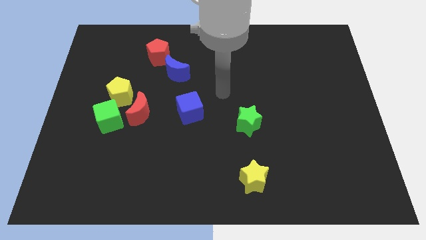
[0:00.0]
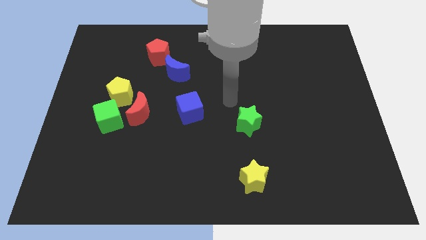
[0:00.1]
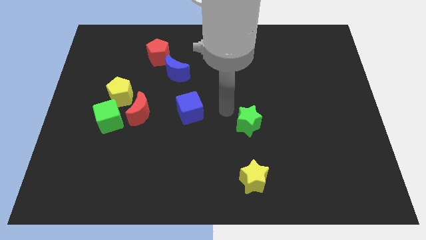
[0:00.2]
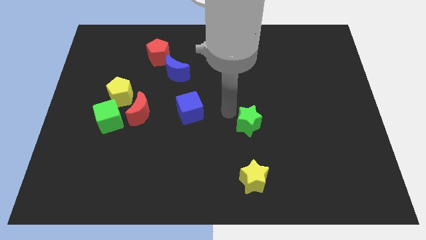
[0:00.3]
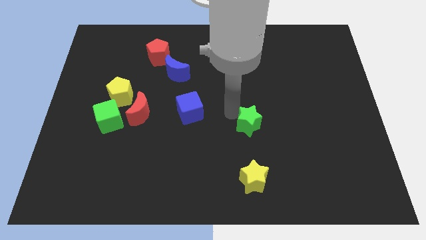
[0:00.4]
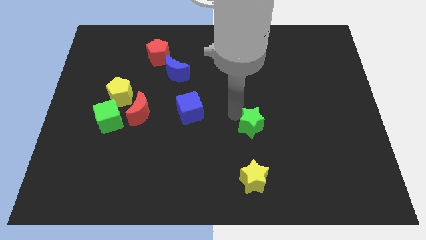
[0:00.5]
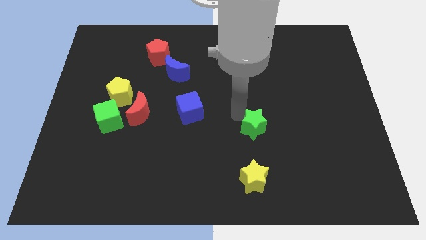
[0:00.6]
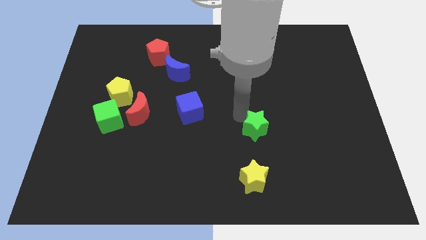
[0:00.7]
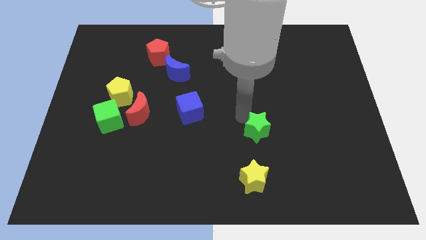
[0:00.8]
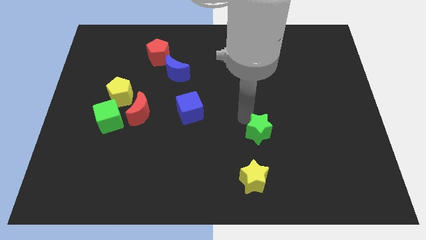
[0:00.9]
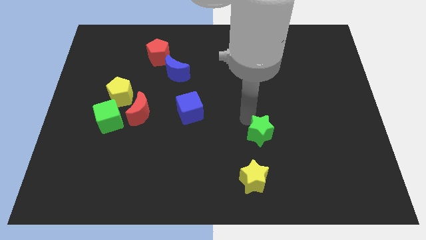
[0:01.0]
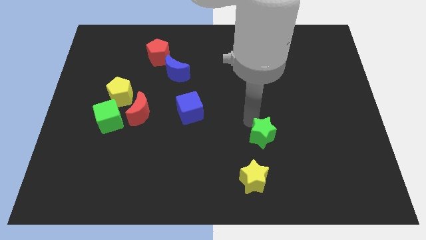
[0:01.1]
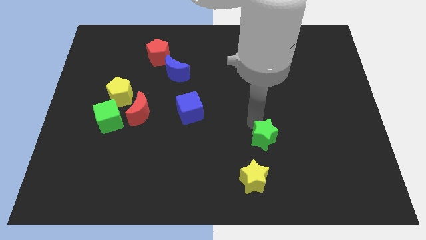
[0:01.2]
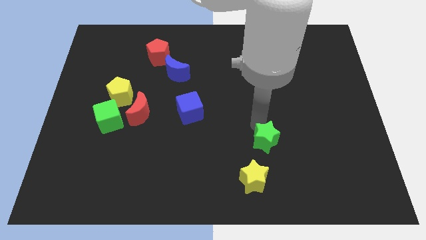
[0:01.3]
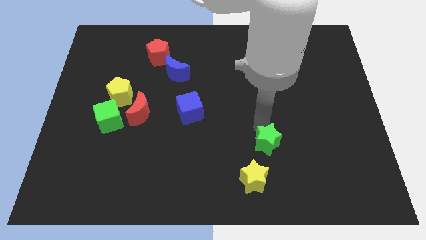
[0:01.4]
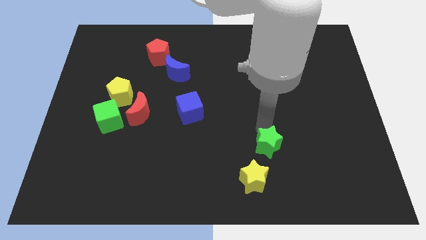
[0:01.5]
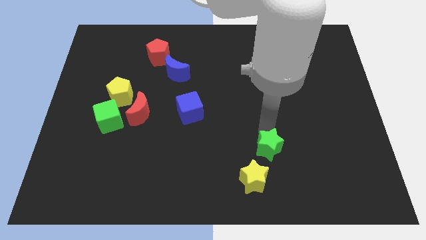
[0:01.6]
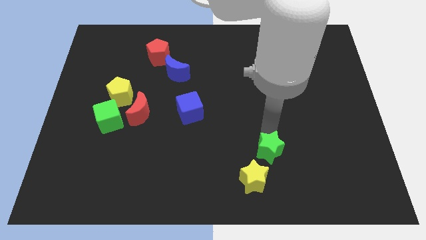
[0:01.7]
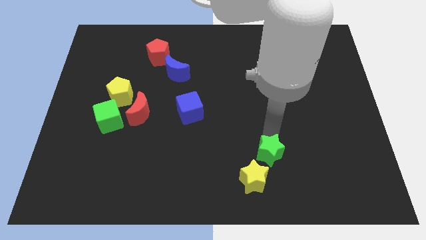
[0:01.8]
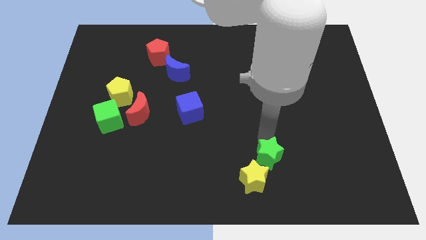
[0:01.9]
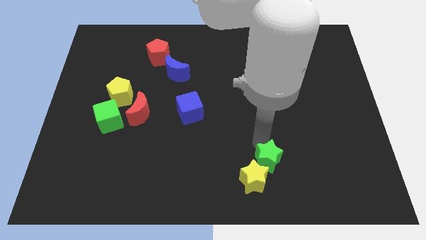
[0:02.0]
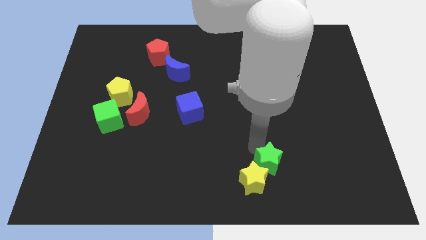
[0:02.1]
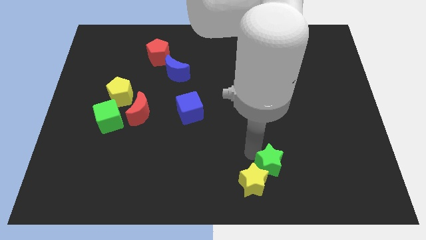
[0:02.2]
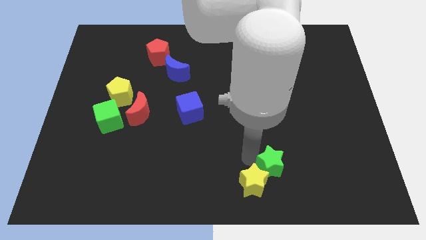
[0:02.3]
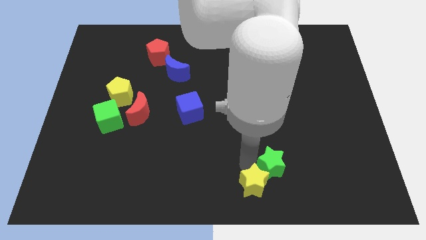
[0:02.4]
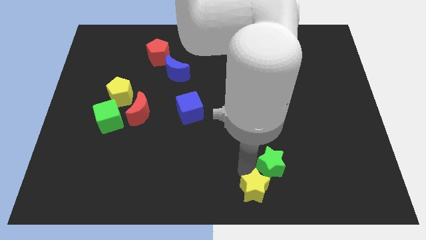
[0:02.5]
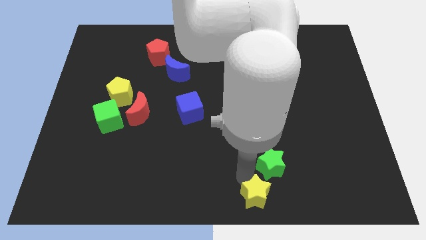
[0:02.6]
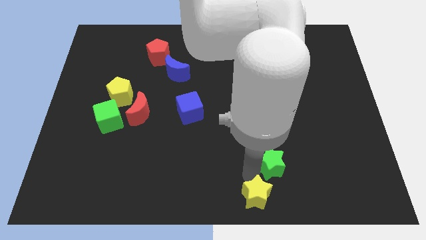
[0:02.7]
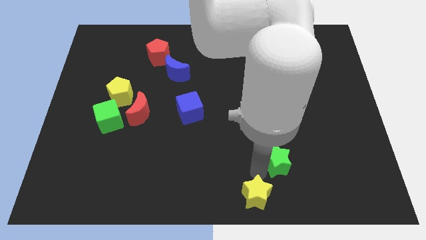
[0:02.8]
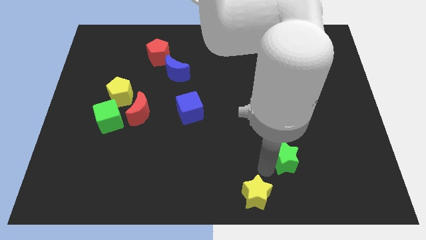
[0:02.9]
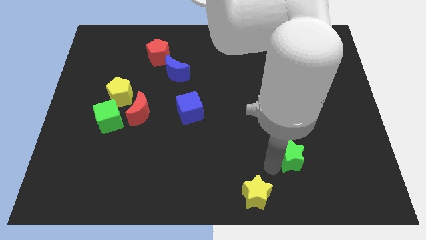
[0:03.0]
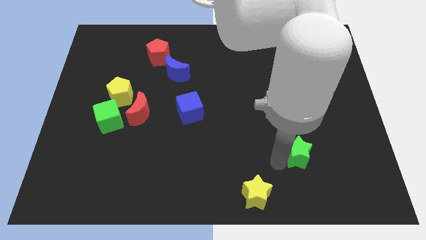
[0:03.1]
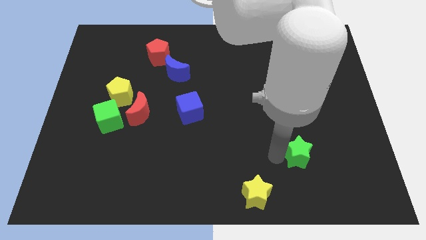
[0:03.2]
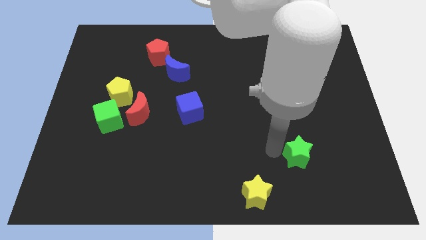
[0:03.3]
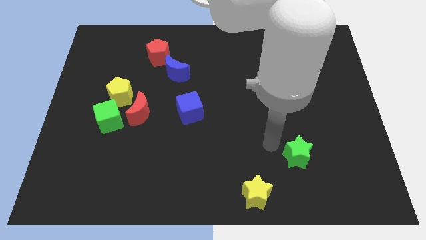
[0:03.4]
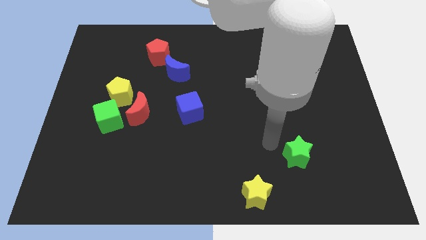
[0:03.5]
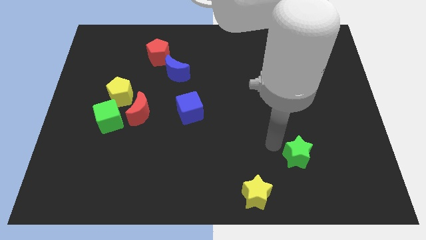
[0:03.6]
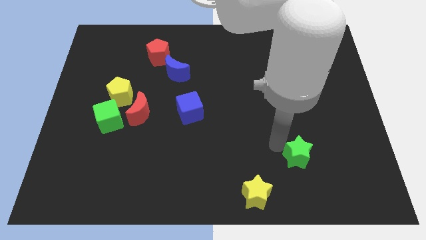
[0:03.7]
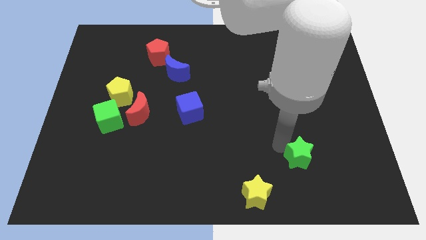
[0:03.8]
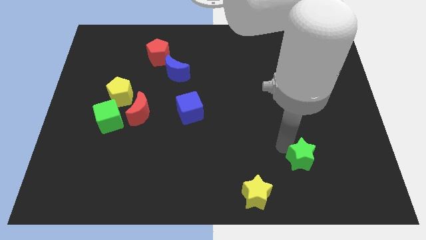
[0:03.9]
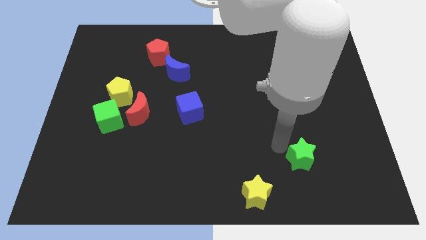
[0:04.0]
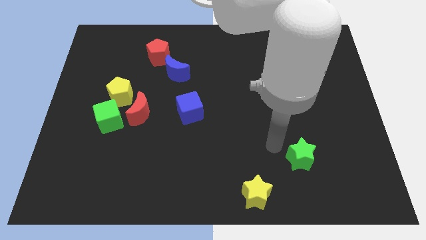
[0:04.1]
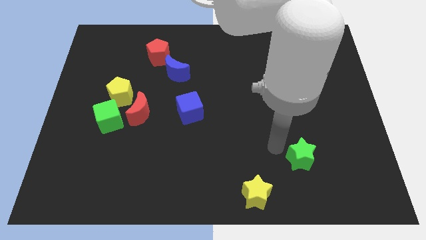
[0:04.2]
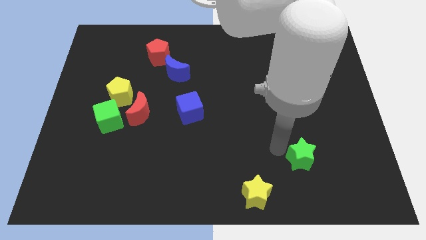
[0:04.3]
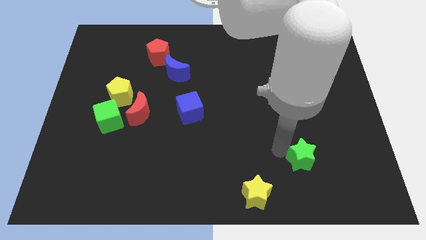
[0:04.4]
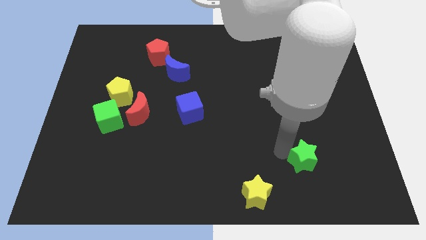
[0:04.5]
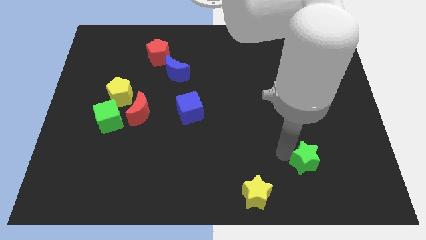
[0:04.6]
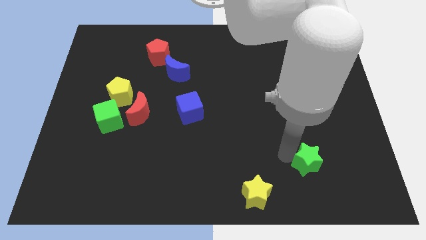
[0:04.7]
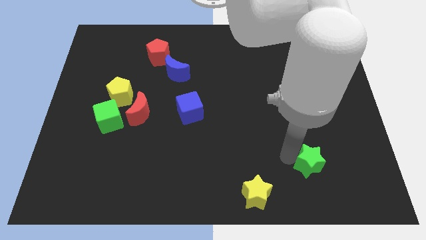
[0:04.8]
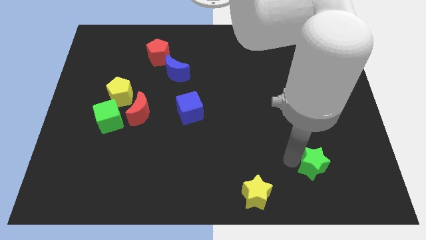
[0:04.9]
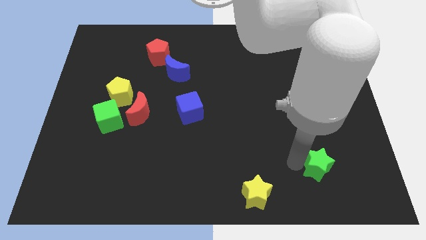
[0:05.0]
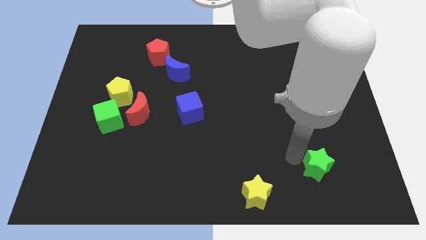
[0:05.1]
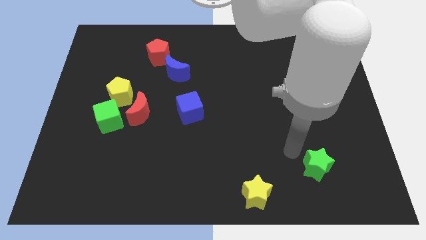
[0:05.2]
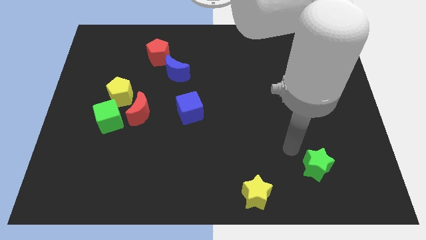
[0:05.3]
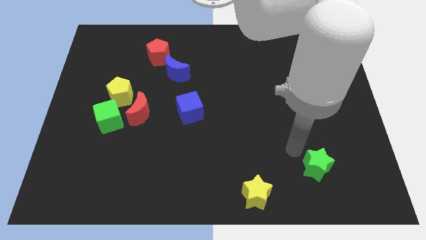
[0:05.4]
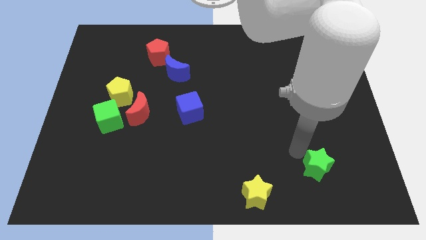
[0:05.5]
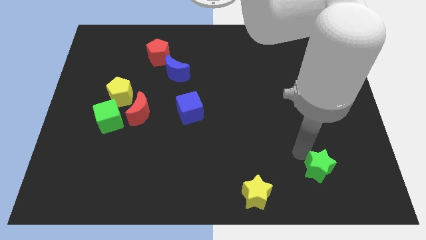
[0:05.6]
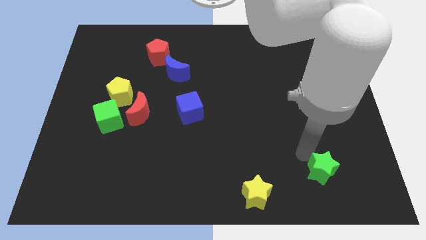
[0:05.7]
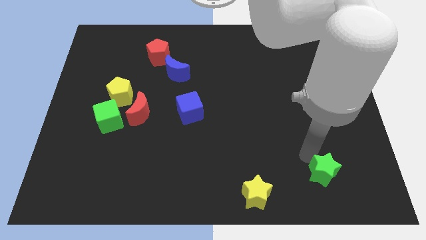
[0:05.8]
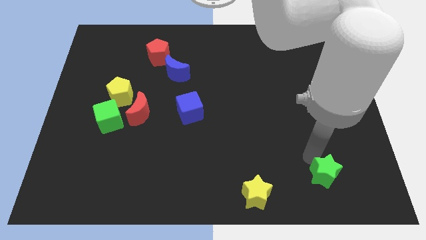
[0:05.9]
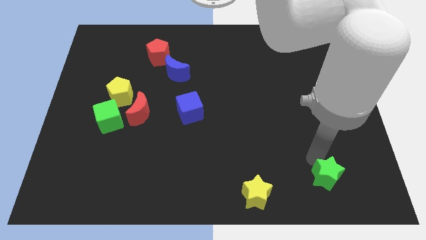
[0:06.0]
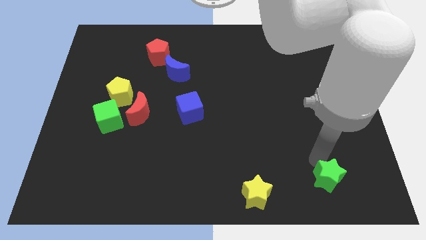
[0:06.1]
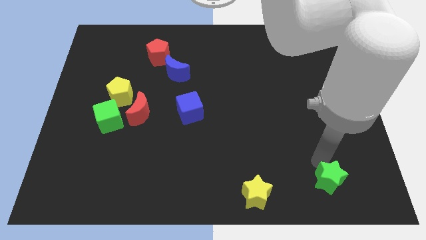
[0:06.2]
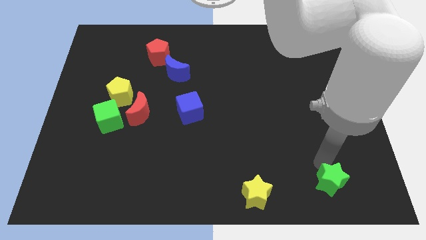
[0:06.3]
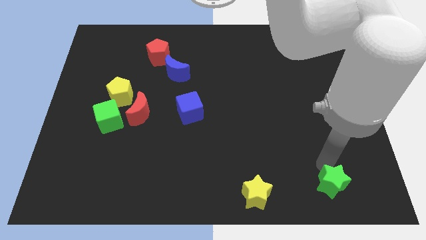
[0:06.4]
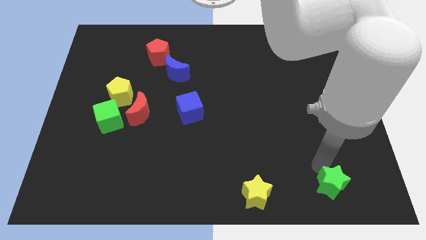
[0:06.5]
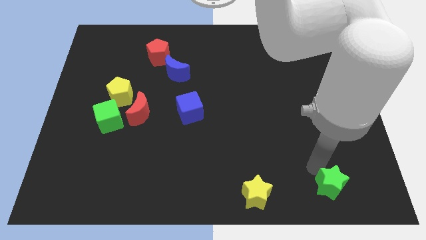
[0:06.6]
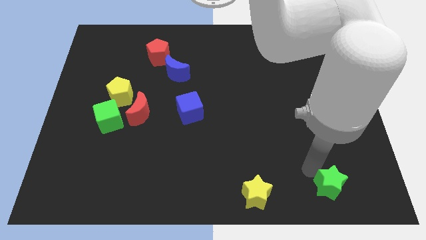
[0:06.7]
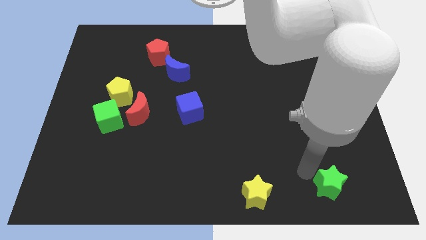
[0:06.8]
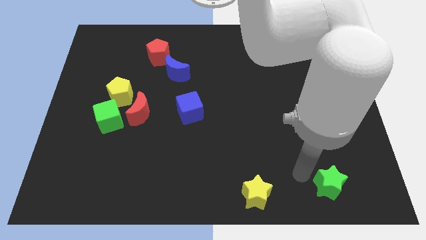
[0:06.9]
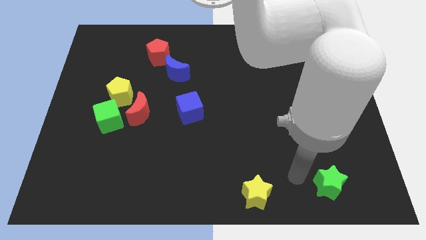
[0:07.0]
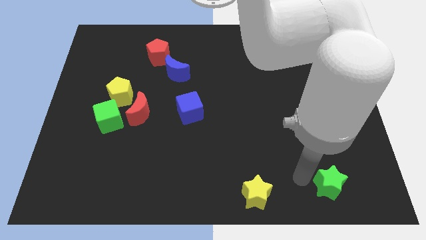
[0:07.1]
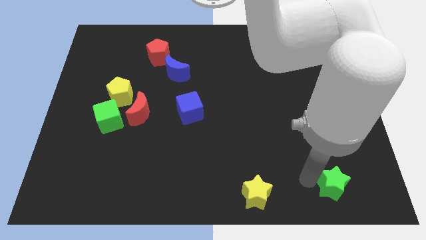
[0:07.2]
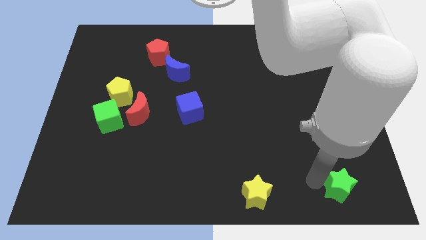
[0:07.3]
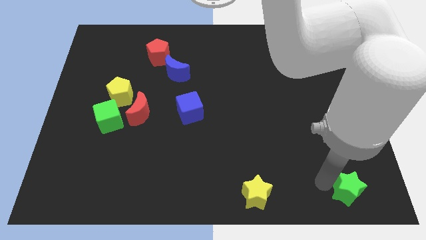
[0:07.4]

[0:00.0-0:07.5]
put the green star to the bottom right of the board
